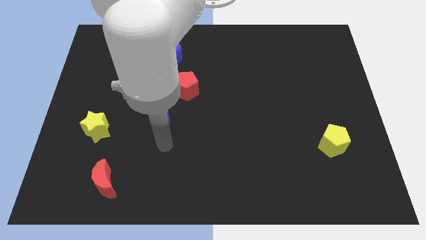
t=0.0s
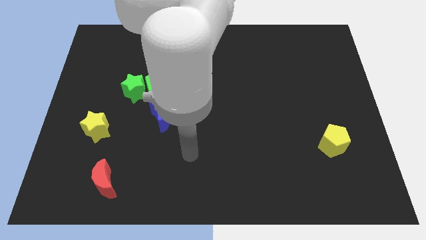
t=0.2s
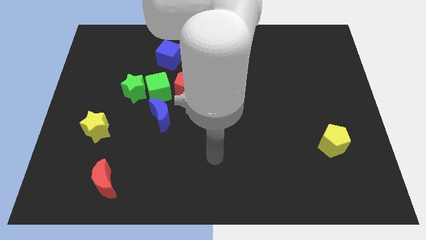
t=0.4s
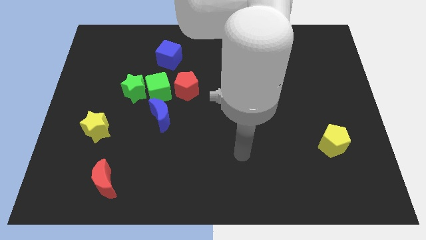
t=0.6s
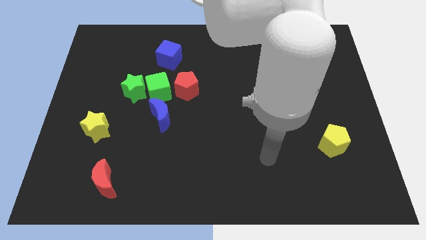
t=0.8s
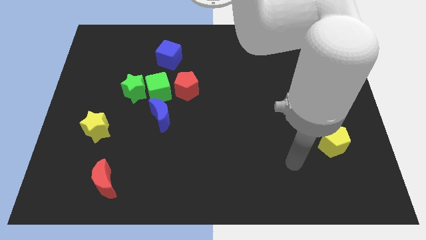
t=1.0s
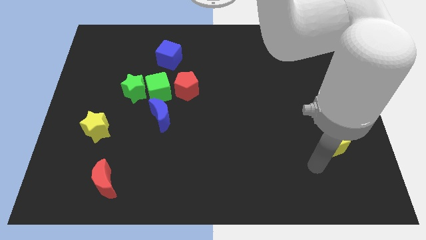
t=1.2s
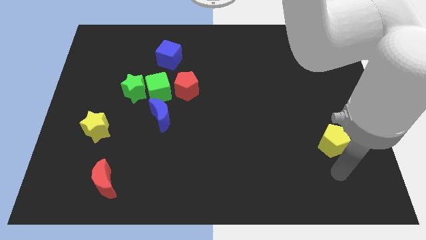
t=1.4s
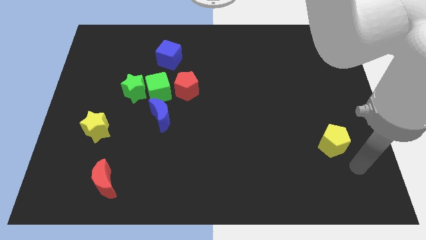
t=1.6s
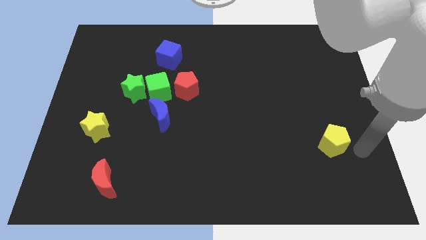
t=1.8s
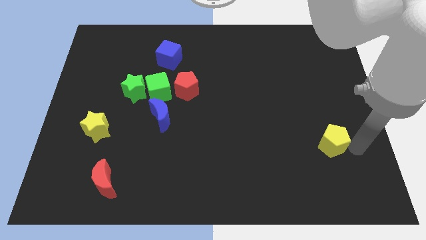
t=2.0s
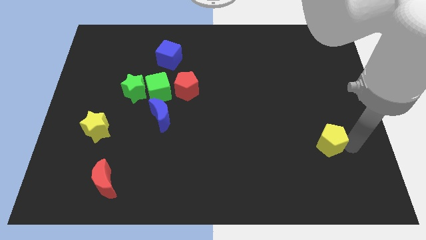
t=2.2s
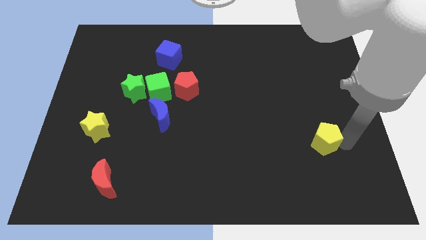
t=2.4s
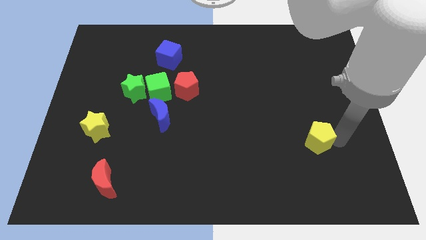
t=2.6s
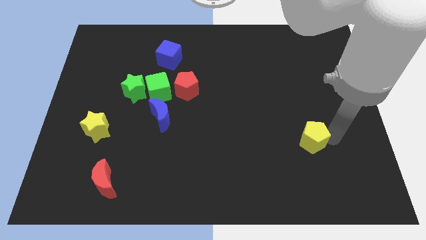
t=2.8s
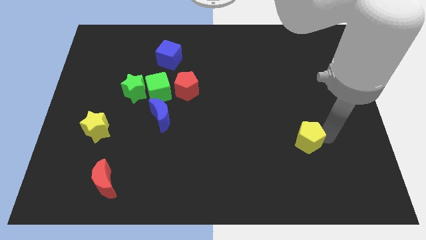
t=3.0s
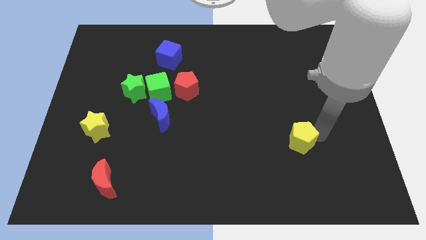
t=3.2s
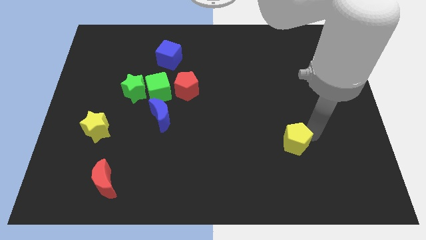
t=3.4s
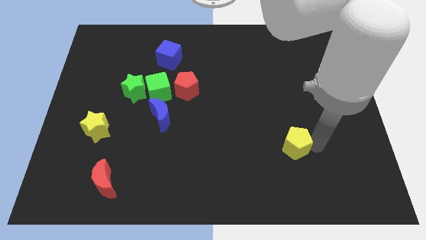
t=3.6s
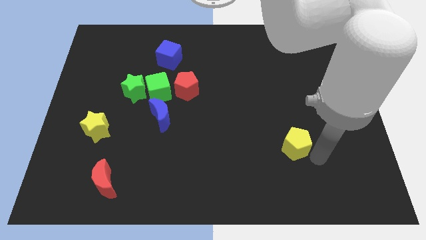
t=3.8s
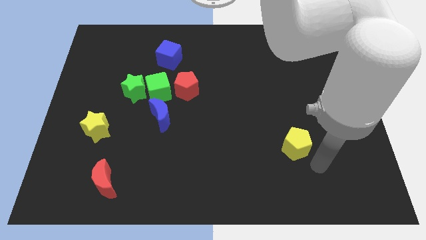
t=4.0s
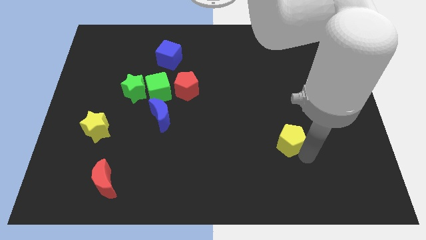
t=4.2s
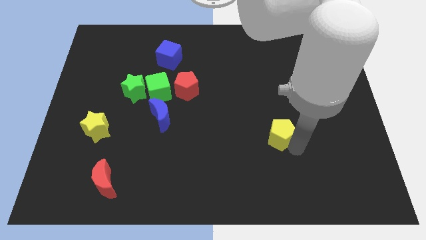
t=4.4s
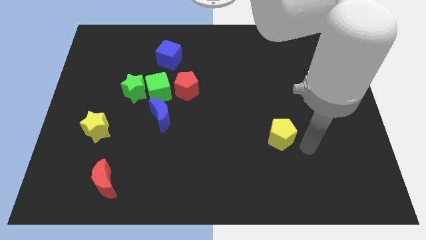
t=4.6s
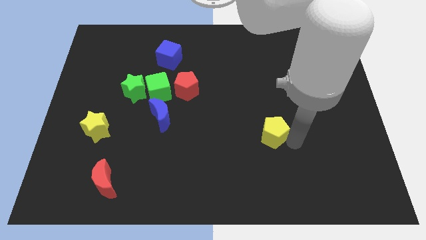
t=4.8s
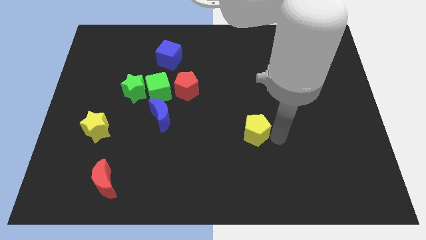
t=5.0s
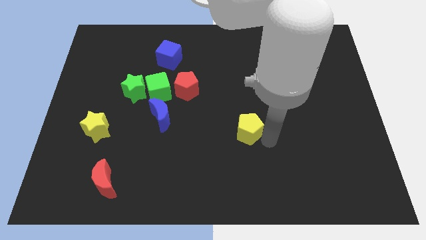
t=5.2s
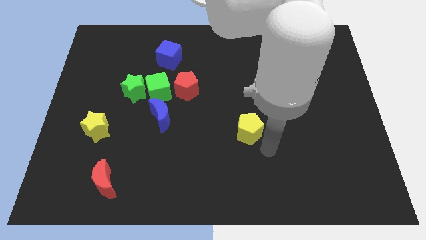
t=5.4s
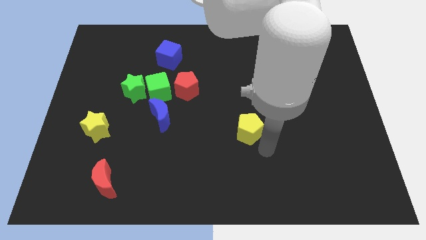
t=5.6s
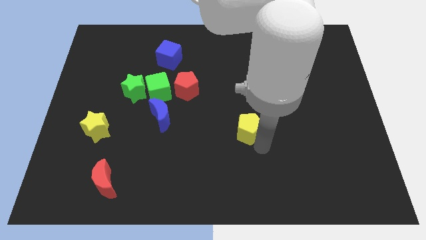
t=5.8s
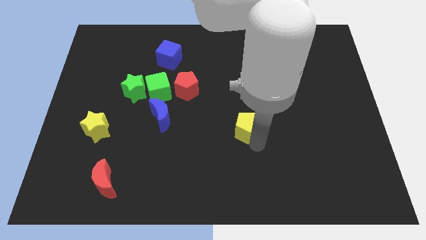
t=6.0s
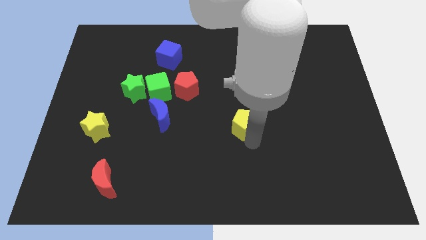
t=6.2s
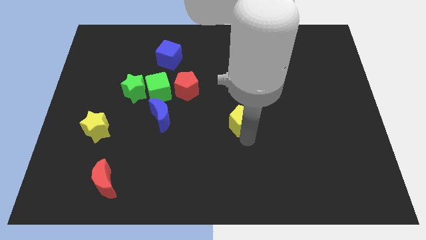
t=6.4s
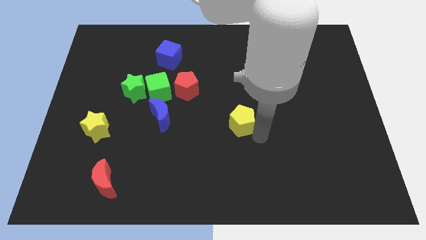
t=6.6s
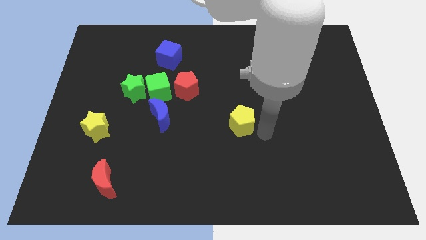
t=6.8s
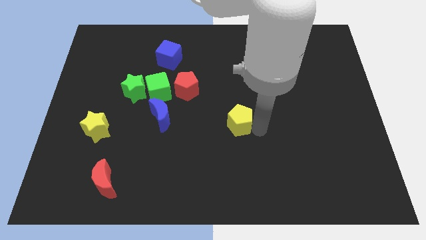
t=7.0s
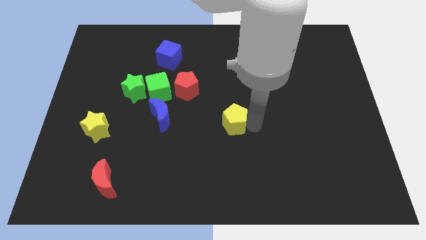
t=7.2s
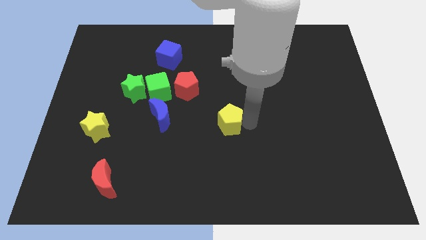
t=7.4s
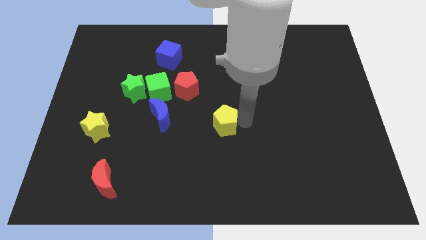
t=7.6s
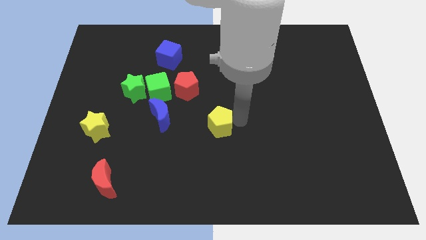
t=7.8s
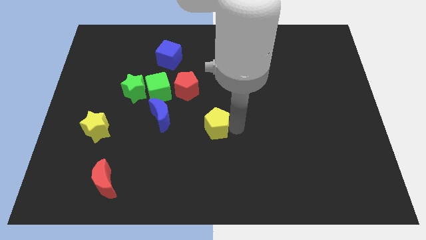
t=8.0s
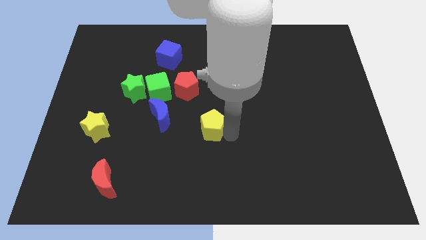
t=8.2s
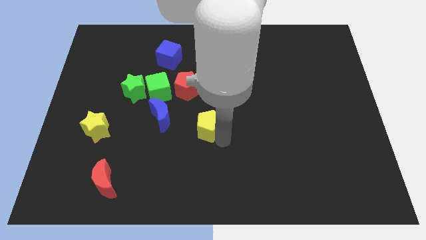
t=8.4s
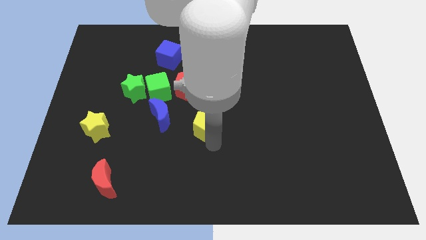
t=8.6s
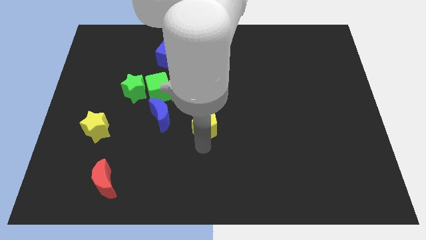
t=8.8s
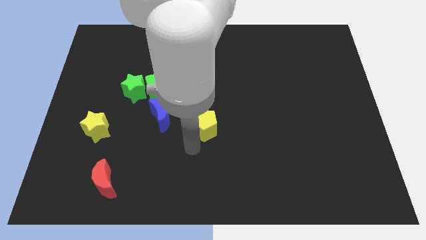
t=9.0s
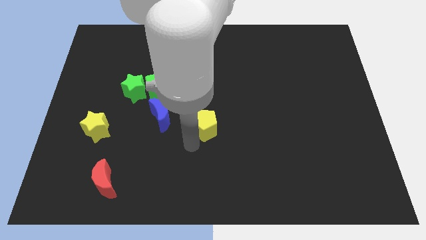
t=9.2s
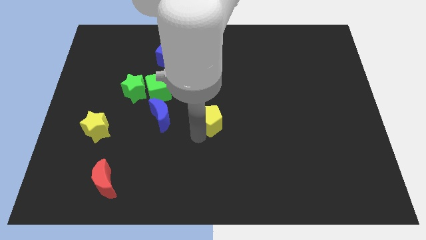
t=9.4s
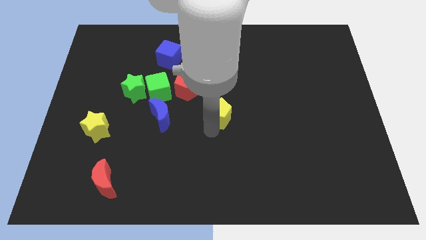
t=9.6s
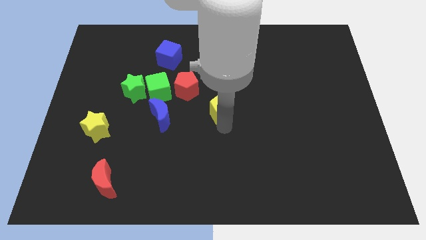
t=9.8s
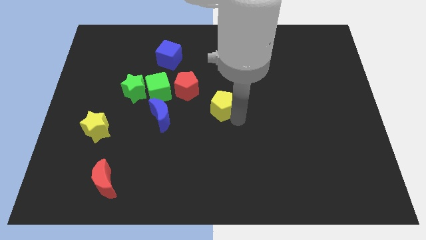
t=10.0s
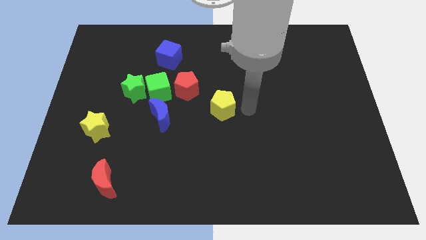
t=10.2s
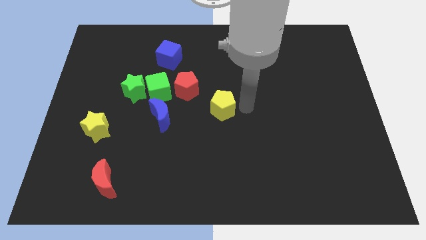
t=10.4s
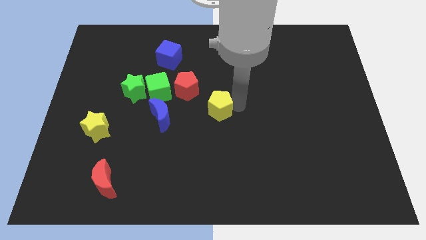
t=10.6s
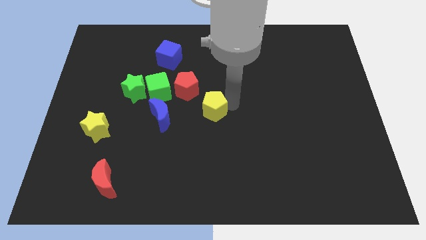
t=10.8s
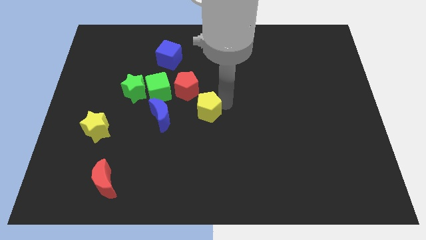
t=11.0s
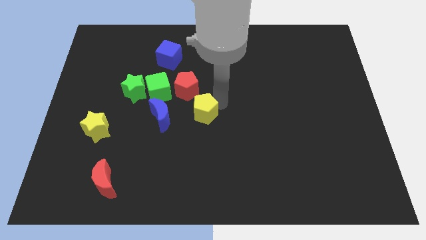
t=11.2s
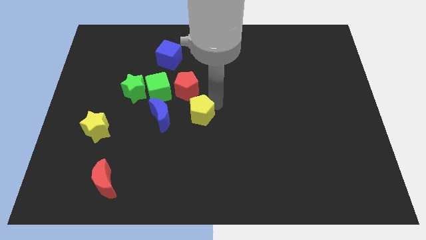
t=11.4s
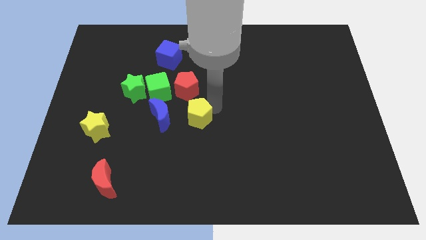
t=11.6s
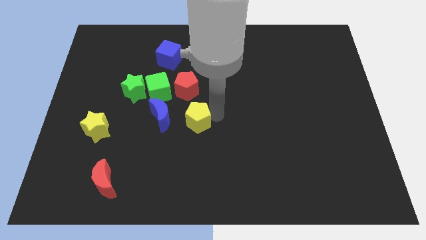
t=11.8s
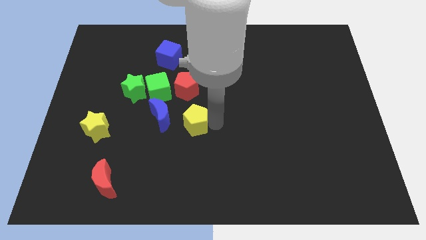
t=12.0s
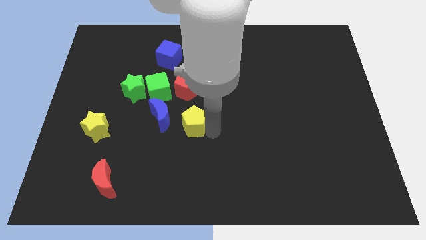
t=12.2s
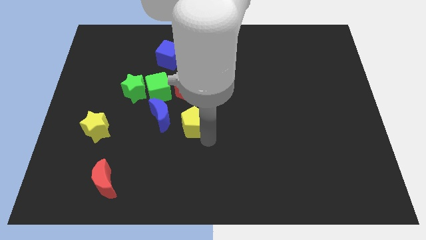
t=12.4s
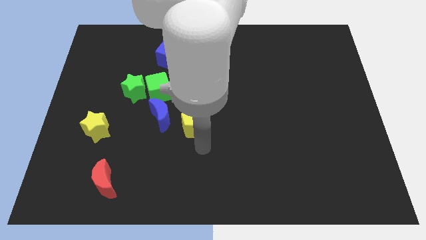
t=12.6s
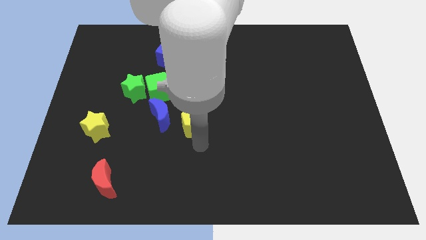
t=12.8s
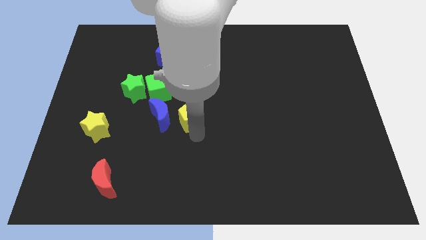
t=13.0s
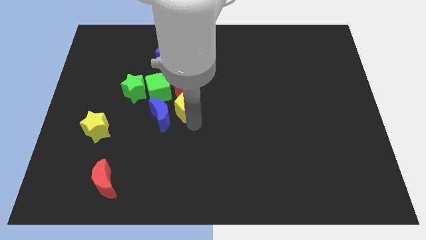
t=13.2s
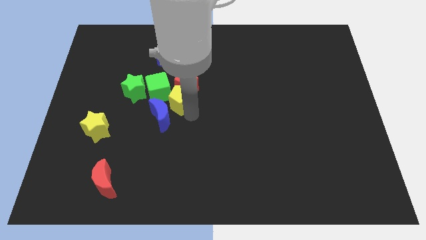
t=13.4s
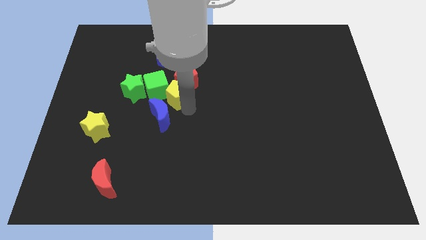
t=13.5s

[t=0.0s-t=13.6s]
push the yellow pentagon towards the green cube

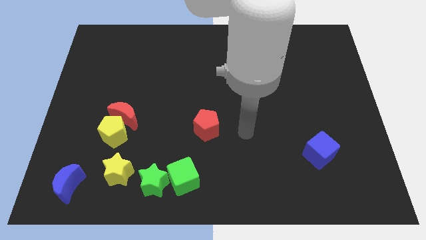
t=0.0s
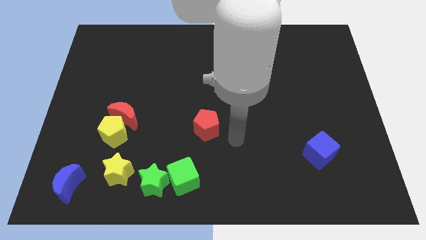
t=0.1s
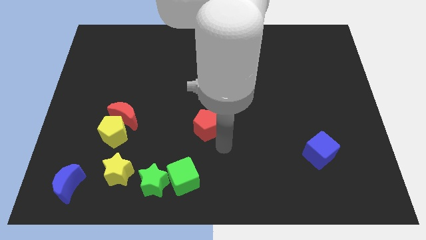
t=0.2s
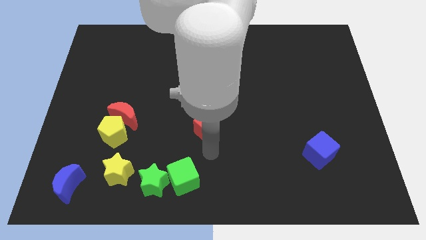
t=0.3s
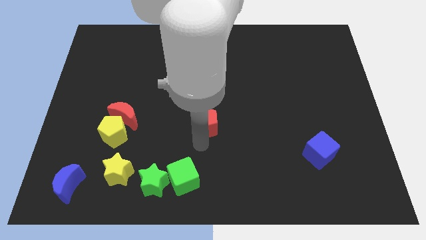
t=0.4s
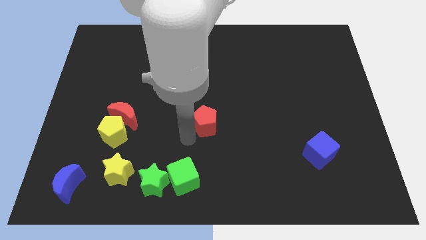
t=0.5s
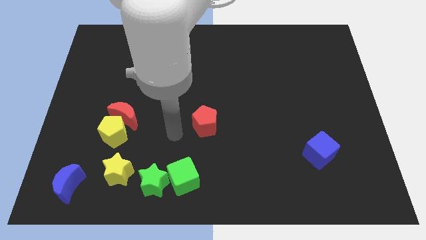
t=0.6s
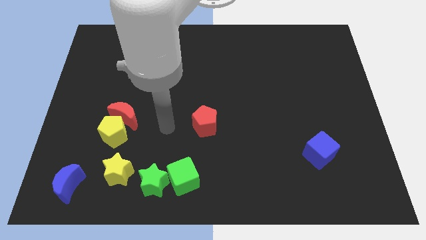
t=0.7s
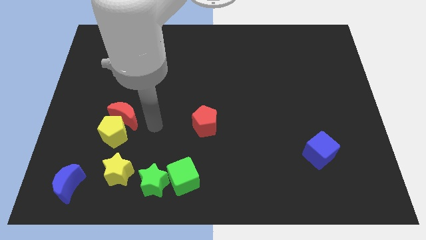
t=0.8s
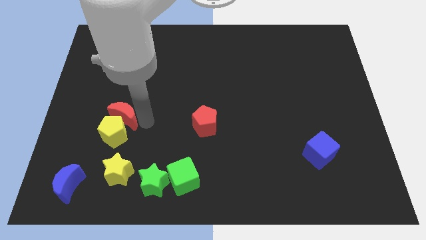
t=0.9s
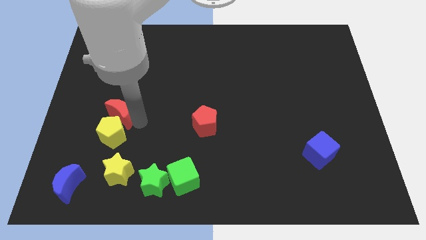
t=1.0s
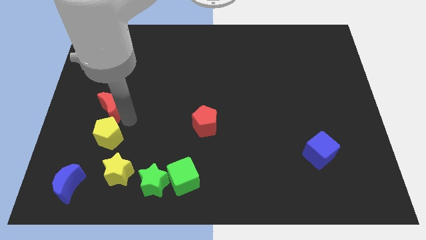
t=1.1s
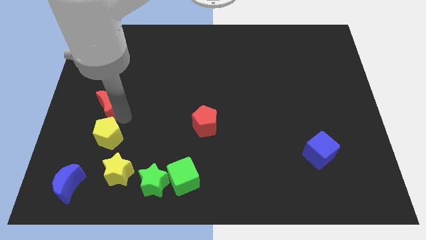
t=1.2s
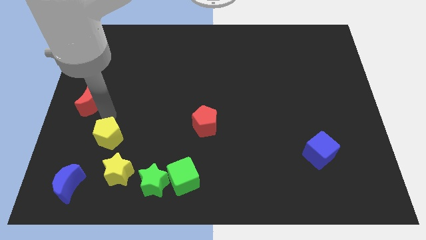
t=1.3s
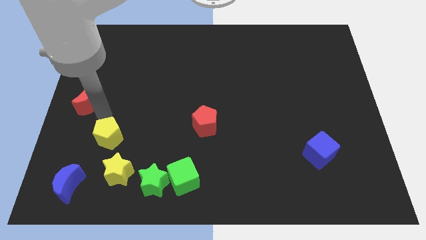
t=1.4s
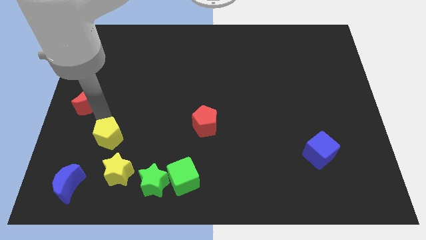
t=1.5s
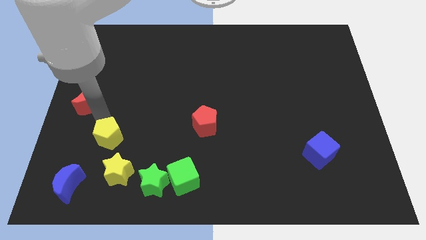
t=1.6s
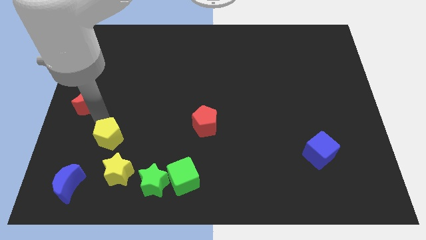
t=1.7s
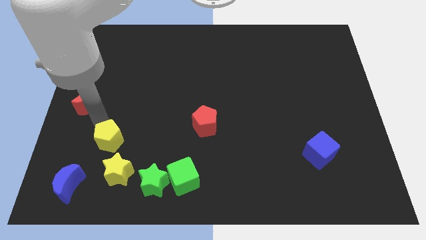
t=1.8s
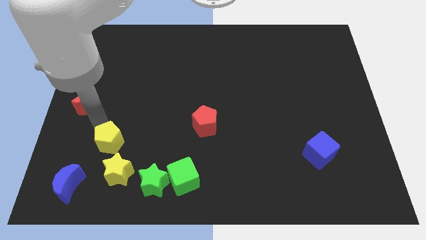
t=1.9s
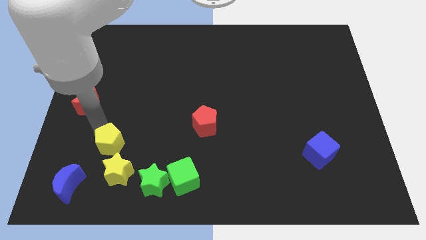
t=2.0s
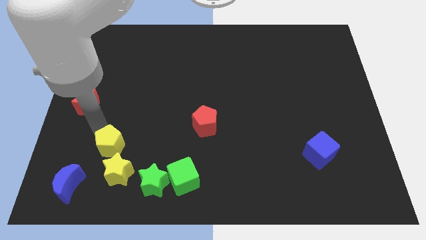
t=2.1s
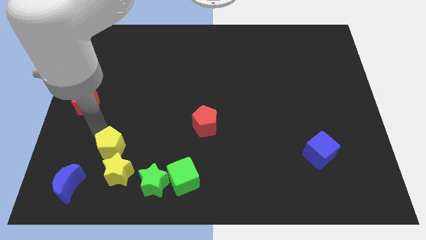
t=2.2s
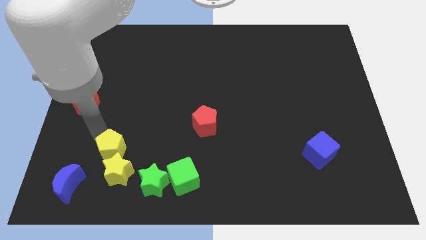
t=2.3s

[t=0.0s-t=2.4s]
push the yellow pentagon to the yellow star
